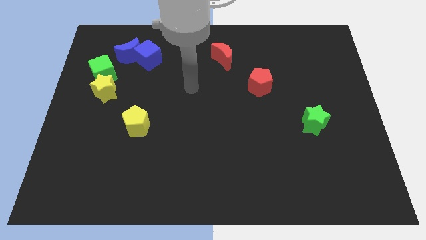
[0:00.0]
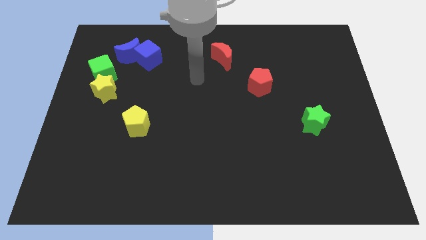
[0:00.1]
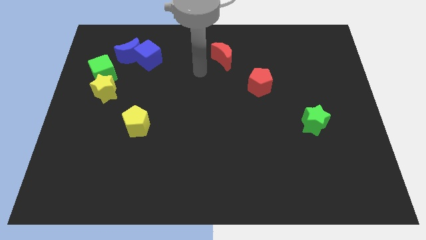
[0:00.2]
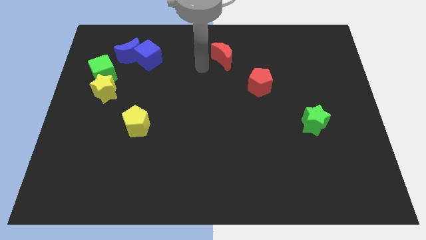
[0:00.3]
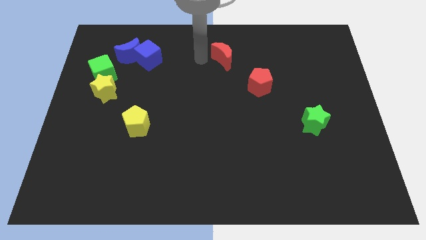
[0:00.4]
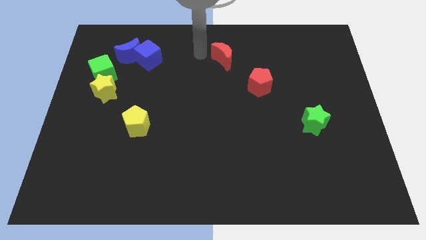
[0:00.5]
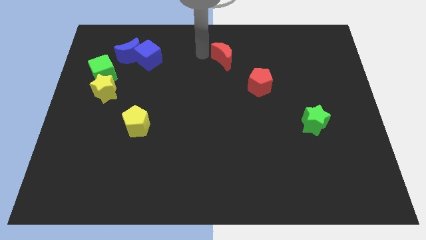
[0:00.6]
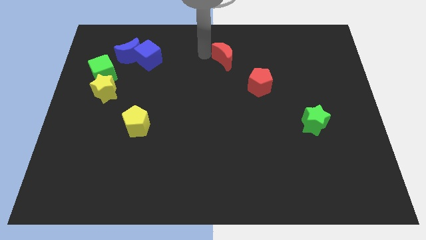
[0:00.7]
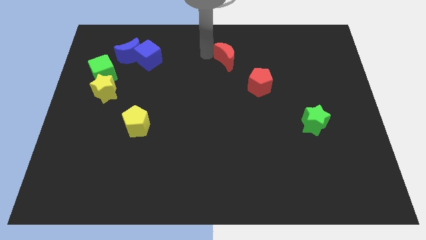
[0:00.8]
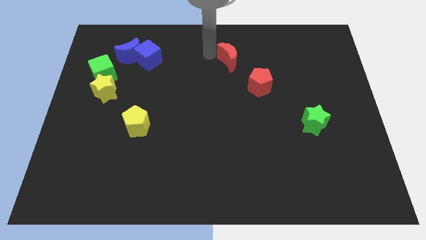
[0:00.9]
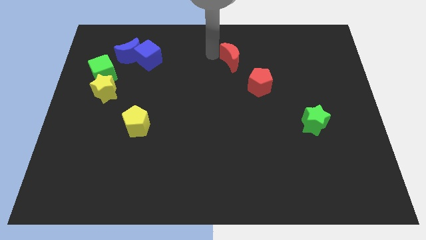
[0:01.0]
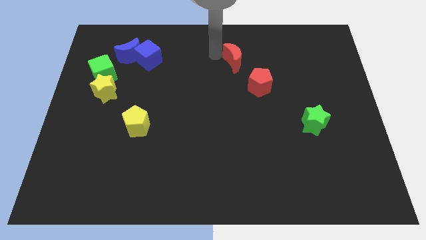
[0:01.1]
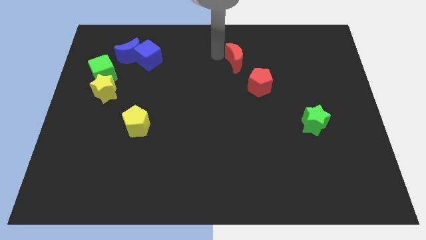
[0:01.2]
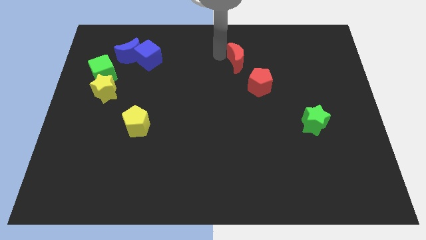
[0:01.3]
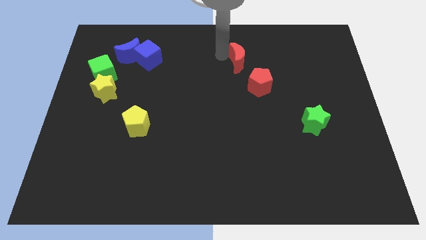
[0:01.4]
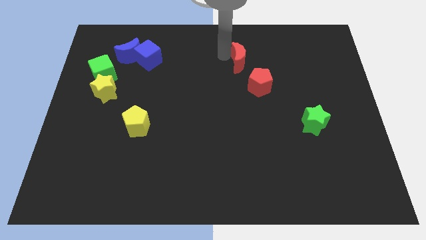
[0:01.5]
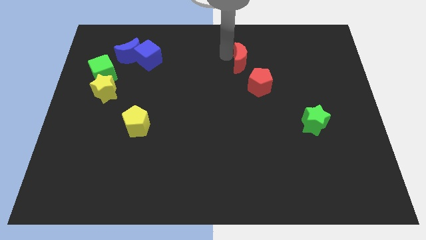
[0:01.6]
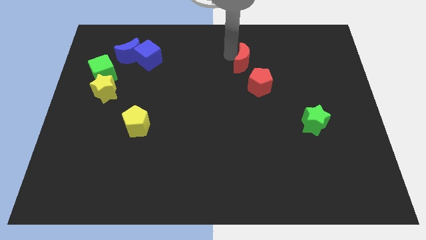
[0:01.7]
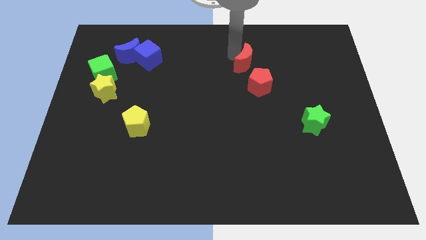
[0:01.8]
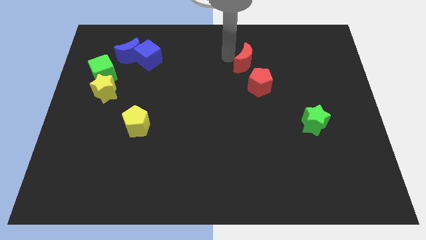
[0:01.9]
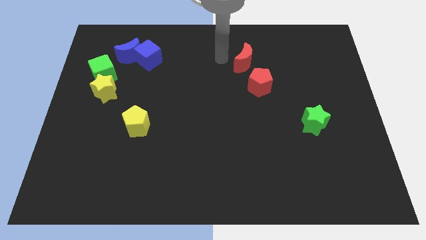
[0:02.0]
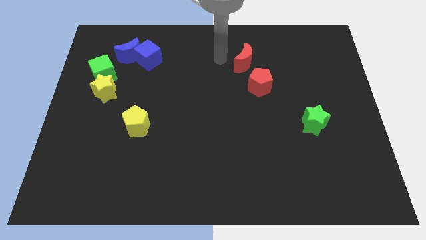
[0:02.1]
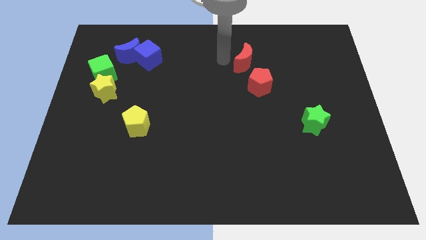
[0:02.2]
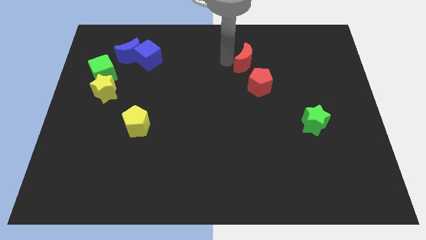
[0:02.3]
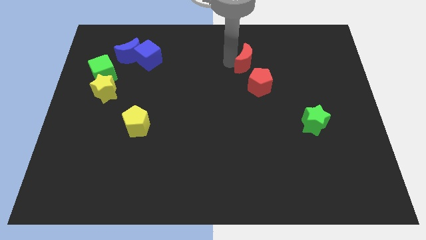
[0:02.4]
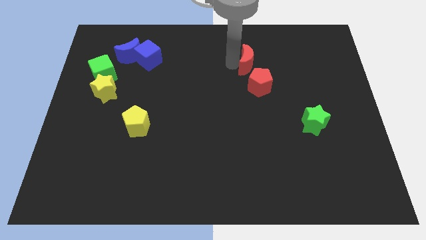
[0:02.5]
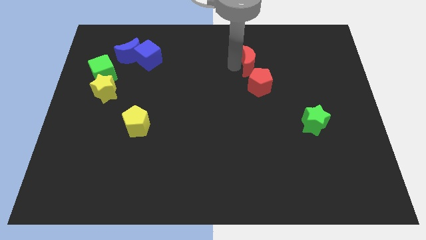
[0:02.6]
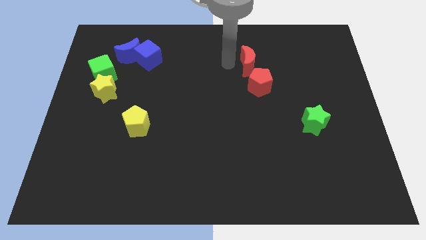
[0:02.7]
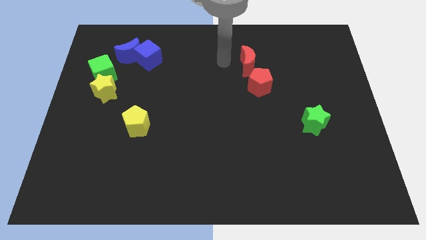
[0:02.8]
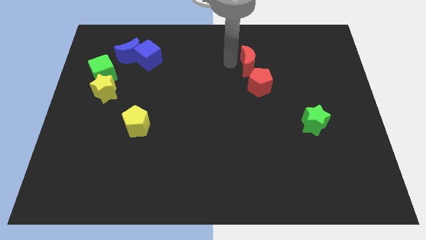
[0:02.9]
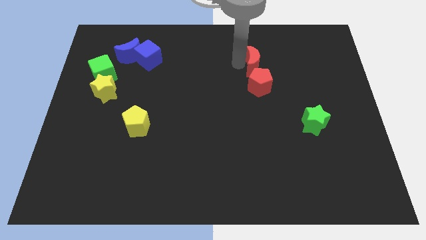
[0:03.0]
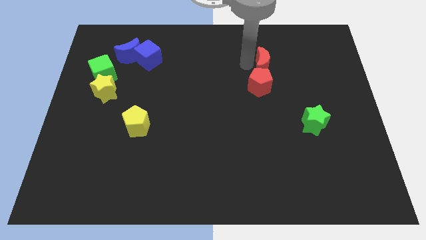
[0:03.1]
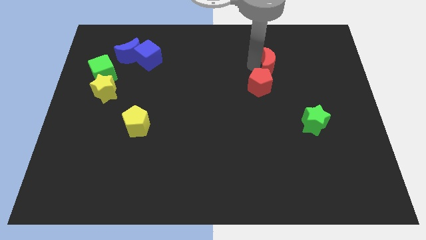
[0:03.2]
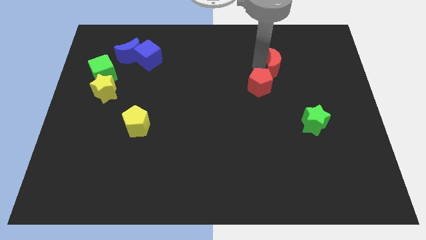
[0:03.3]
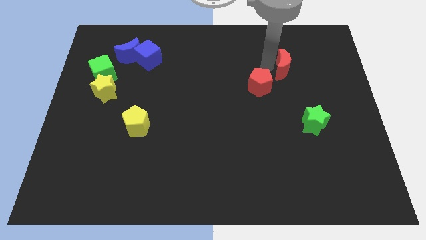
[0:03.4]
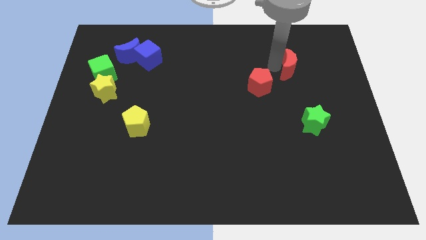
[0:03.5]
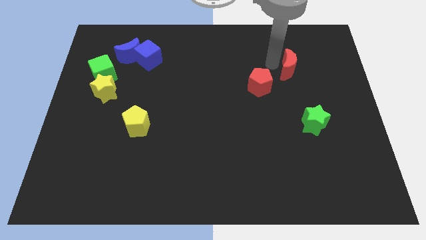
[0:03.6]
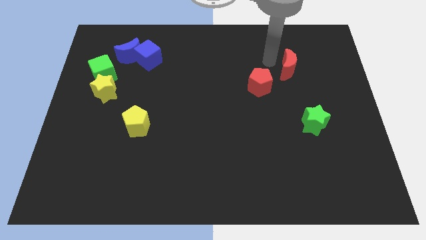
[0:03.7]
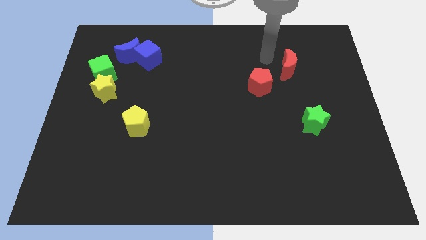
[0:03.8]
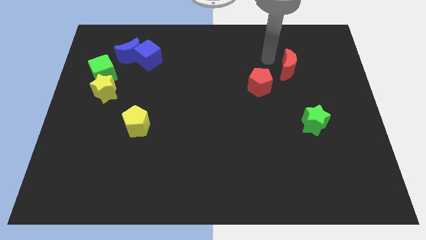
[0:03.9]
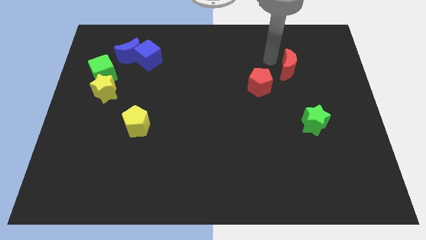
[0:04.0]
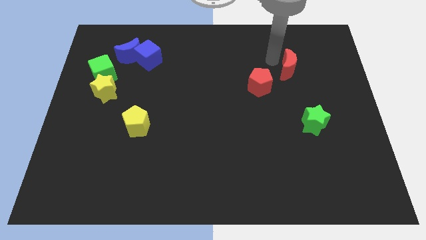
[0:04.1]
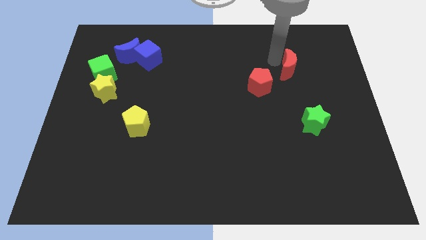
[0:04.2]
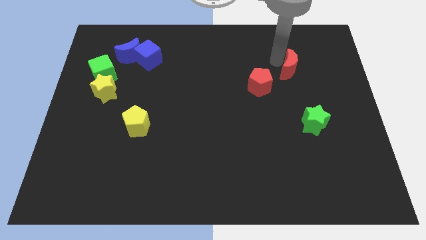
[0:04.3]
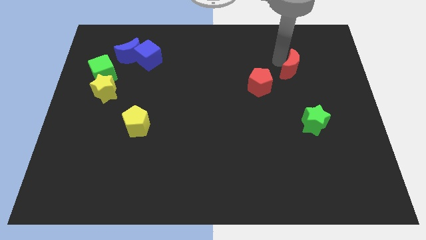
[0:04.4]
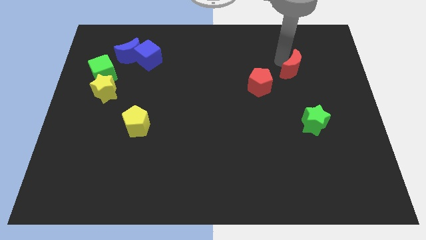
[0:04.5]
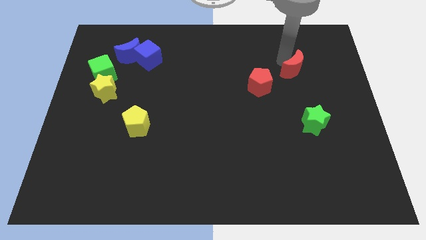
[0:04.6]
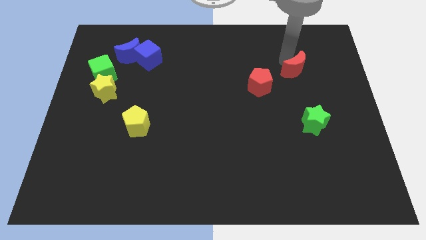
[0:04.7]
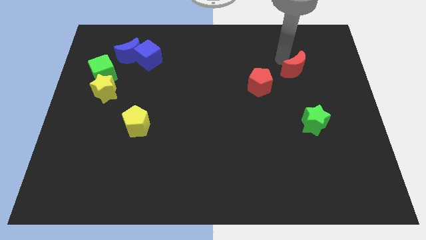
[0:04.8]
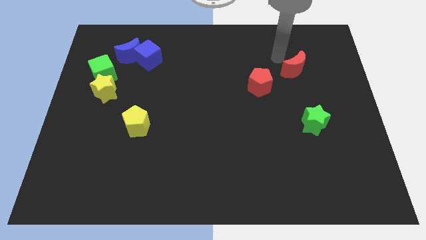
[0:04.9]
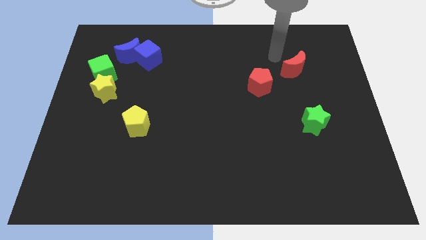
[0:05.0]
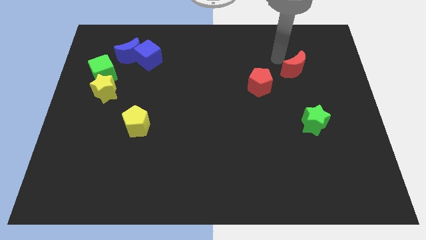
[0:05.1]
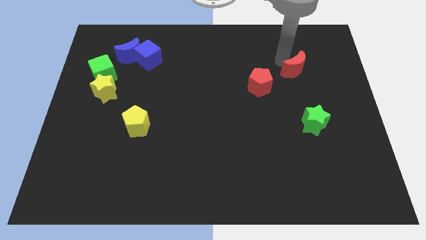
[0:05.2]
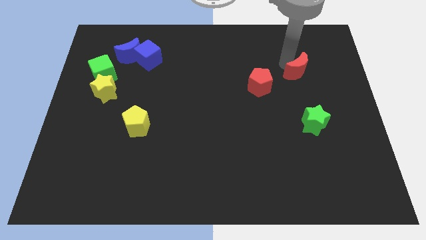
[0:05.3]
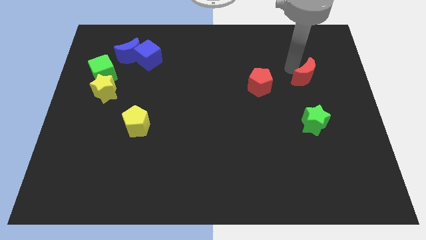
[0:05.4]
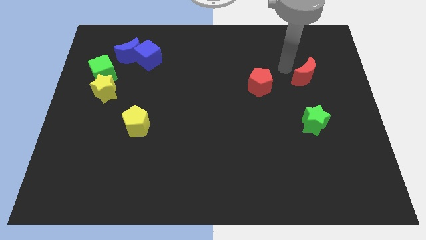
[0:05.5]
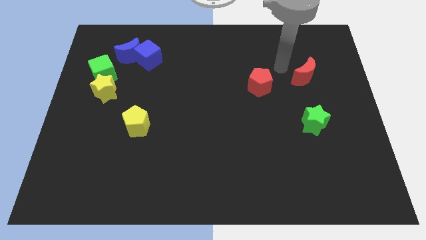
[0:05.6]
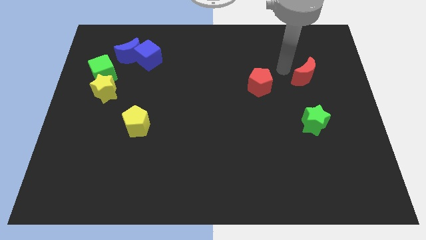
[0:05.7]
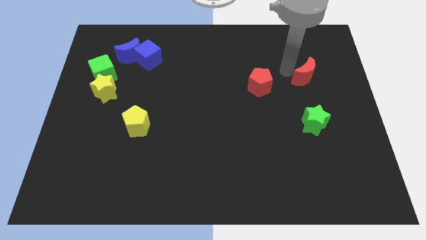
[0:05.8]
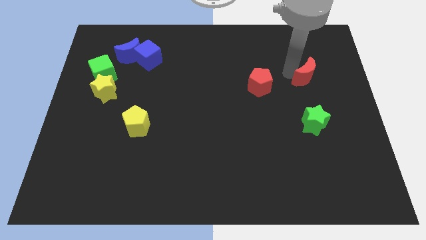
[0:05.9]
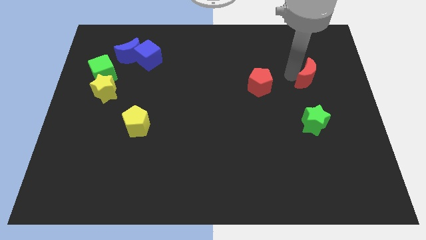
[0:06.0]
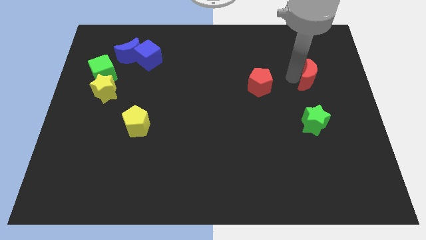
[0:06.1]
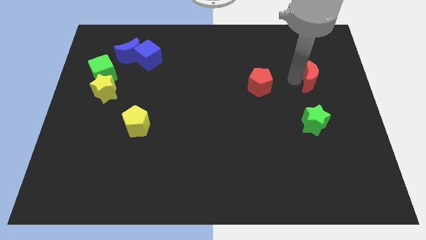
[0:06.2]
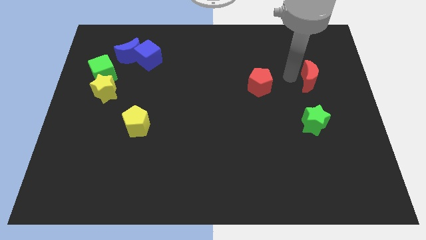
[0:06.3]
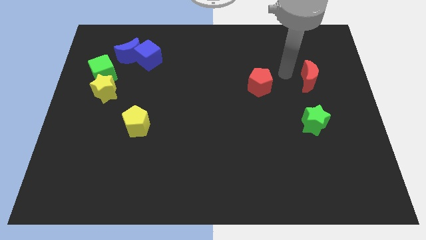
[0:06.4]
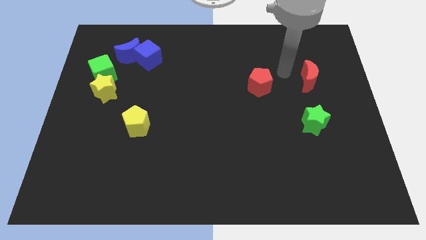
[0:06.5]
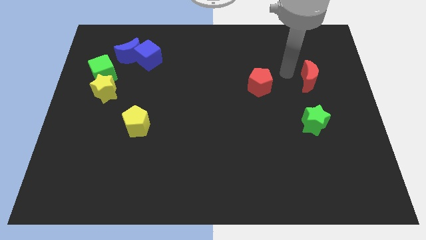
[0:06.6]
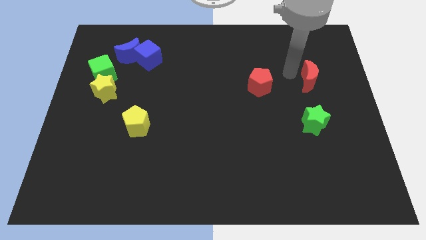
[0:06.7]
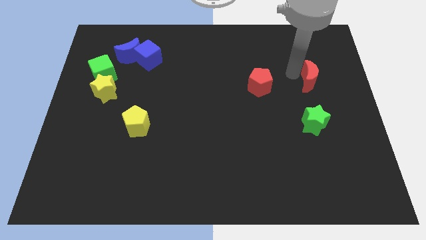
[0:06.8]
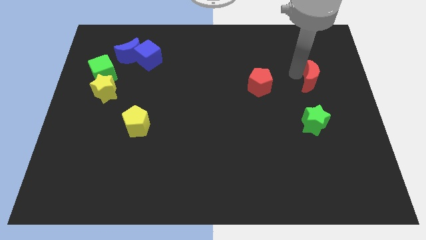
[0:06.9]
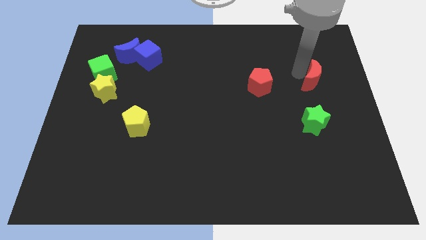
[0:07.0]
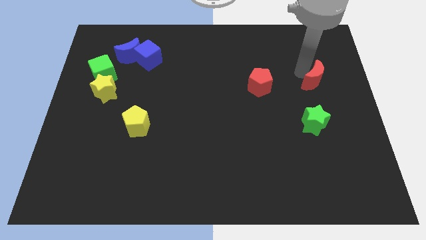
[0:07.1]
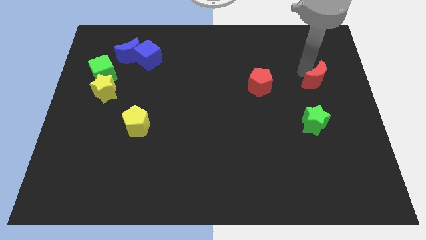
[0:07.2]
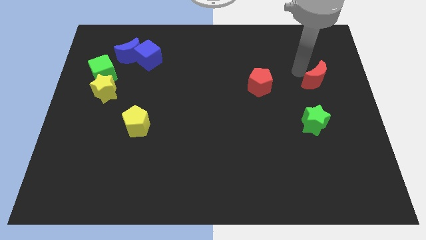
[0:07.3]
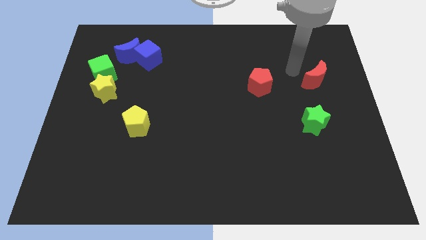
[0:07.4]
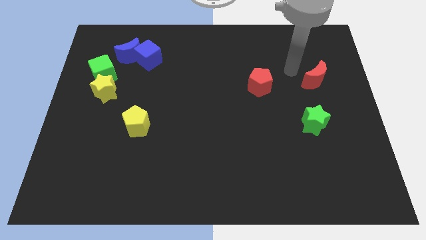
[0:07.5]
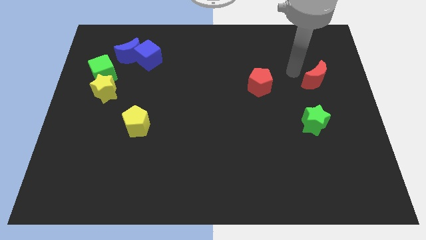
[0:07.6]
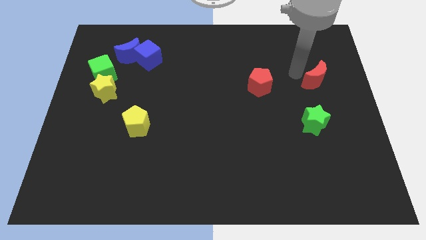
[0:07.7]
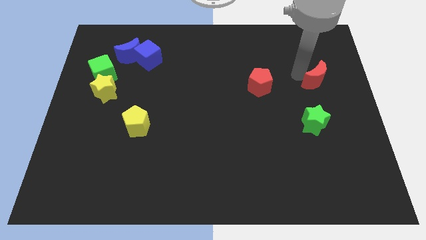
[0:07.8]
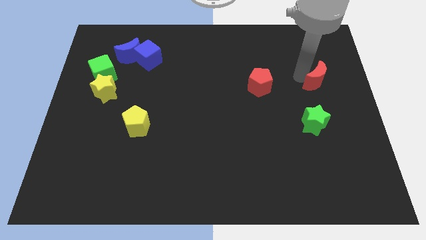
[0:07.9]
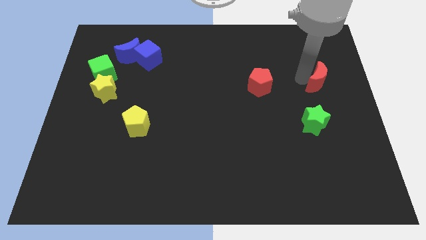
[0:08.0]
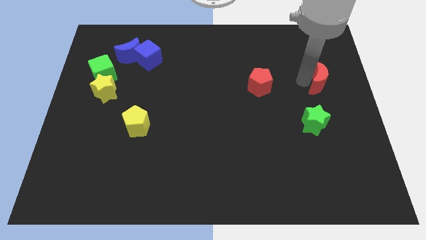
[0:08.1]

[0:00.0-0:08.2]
move the red moon to the right side
